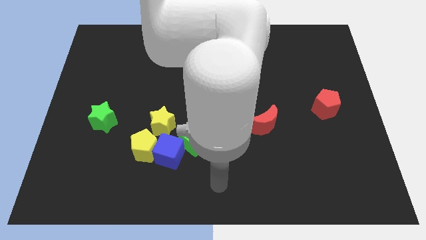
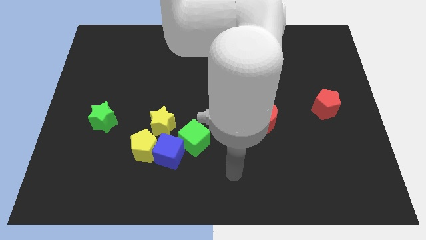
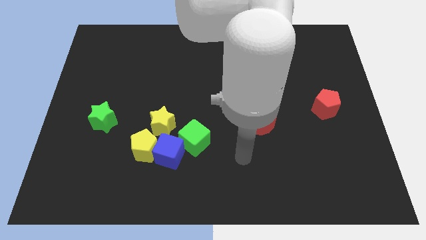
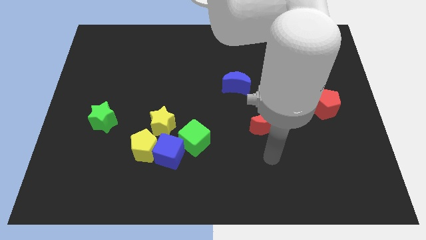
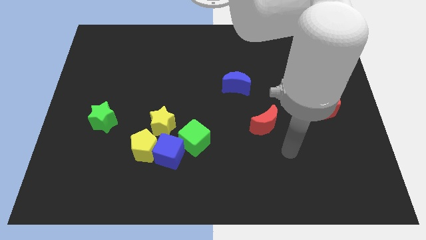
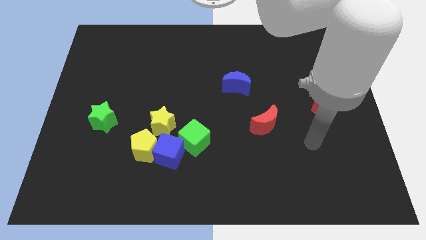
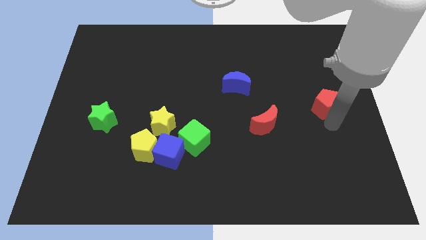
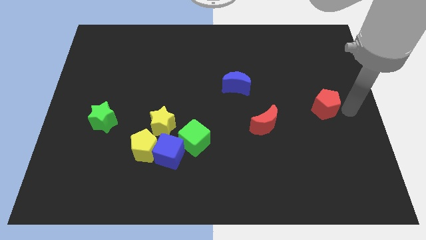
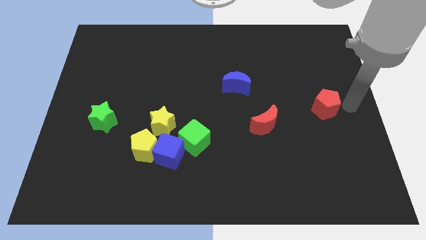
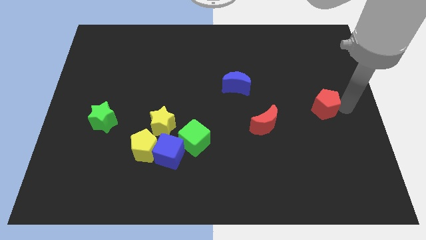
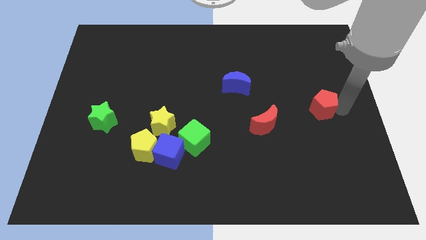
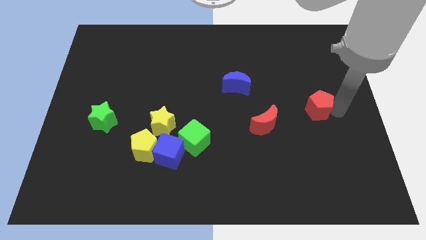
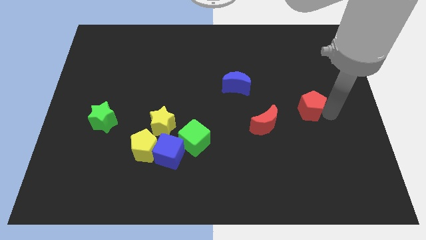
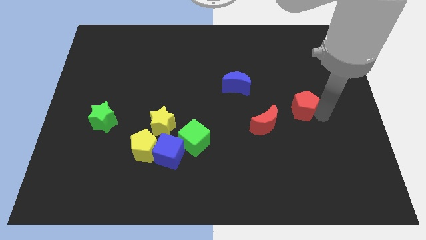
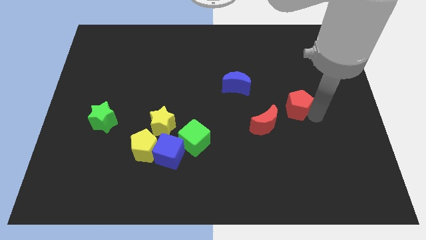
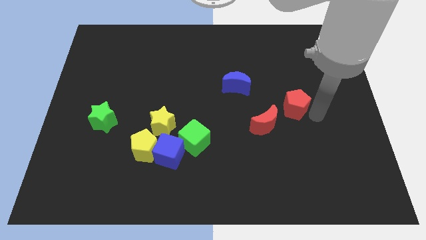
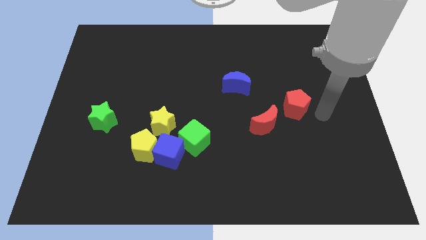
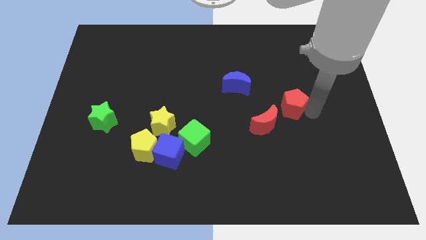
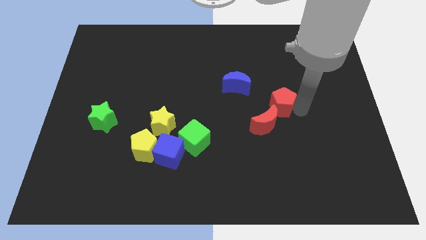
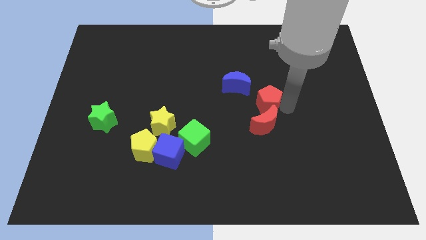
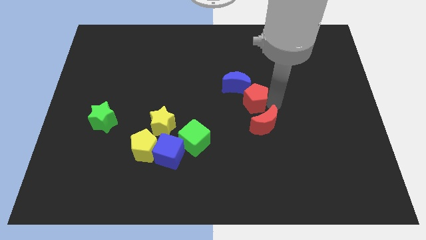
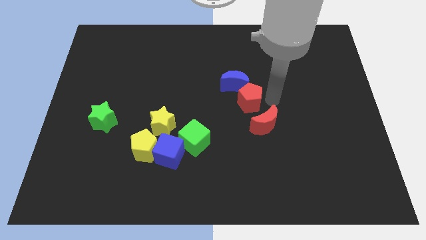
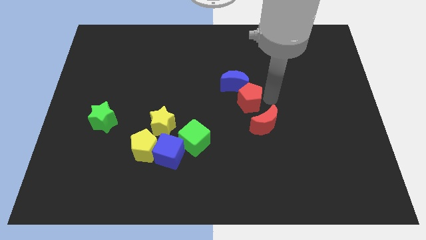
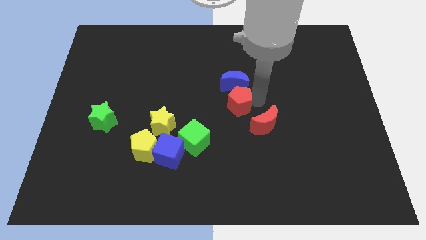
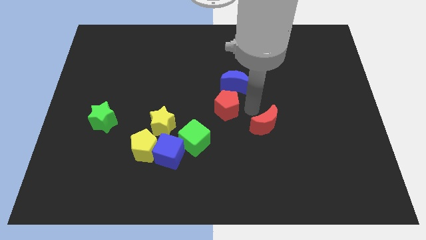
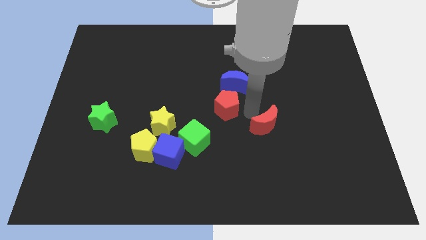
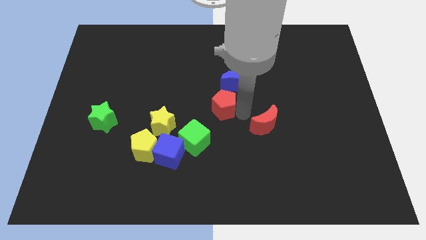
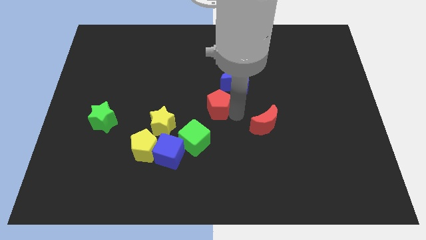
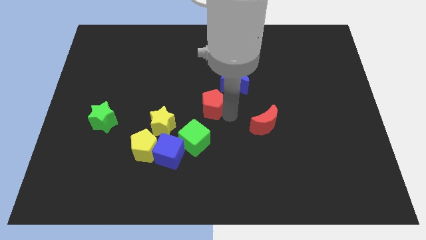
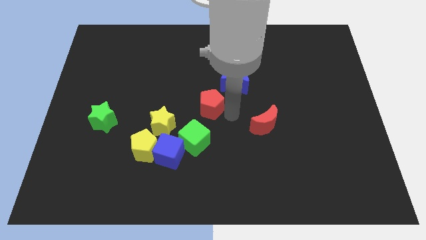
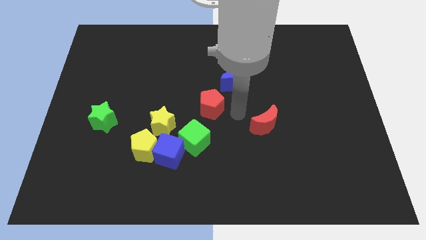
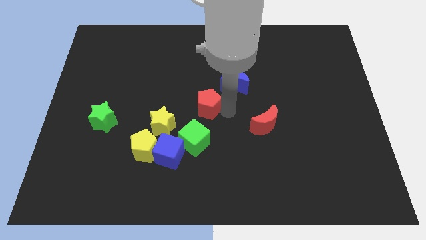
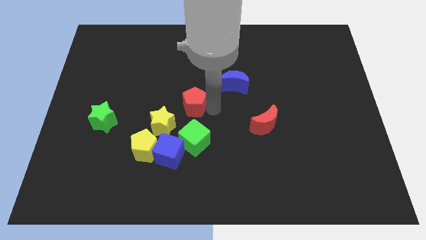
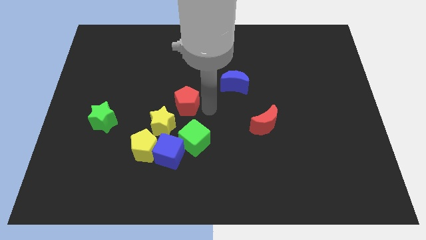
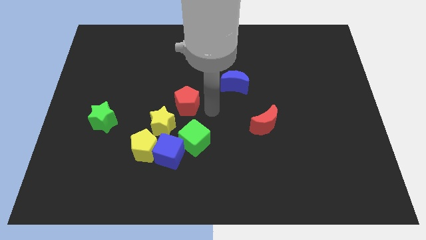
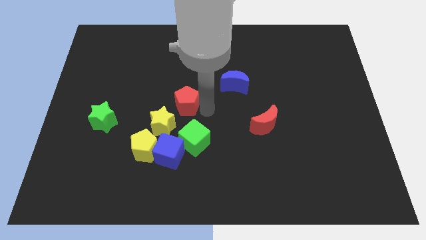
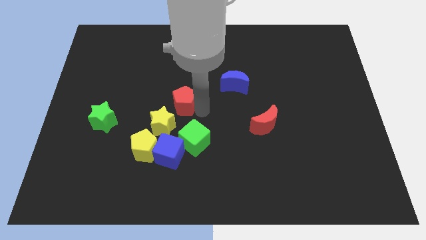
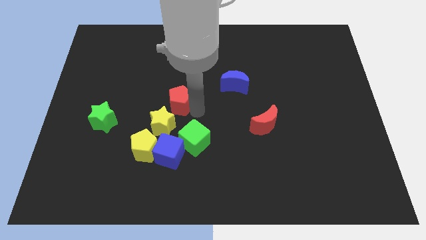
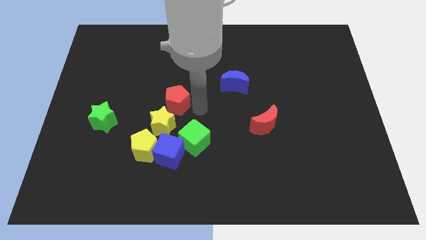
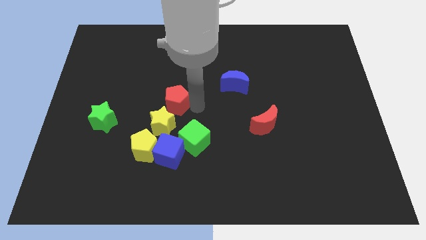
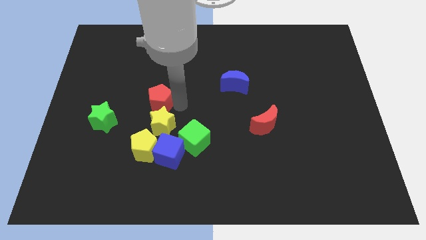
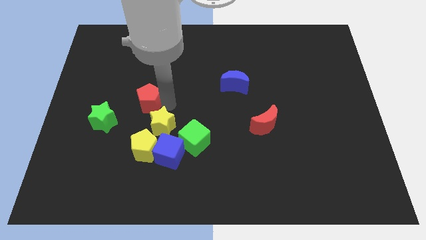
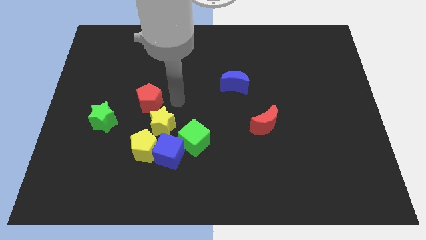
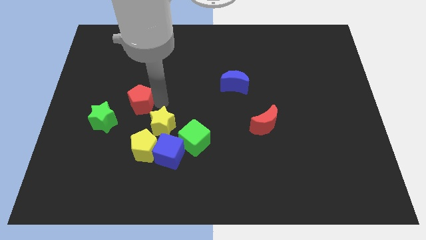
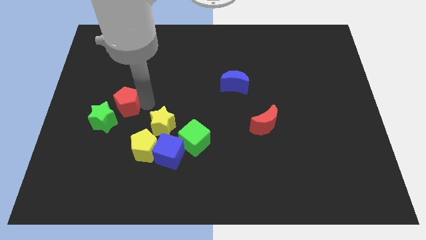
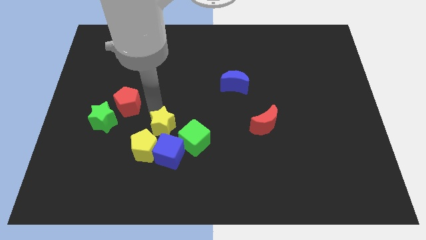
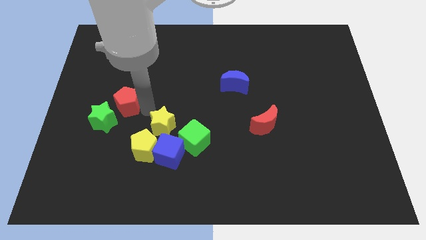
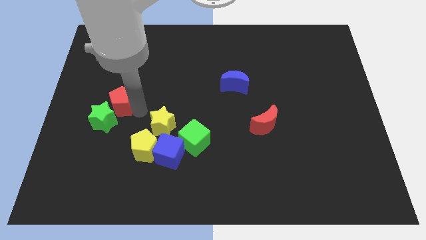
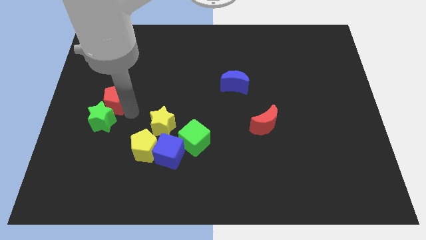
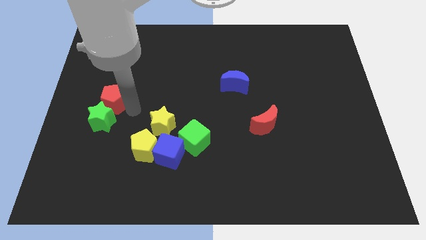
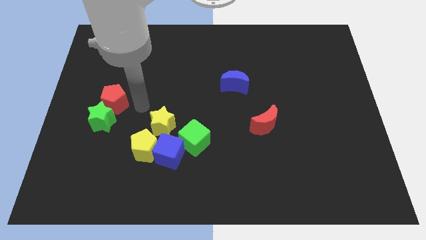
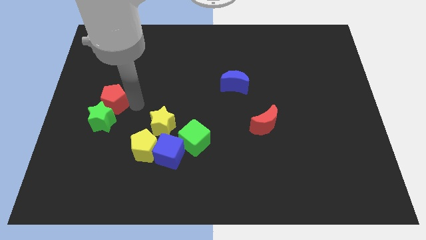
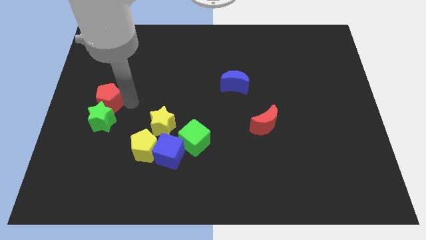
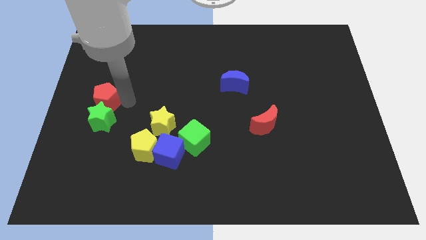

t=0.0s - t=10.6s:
move the red pentagon to the left side

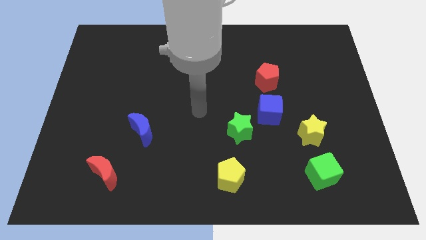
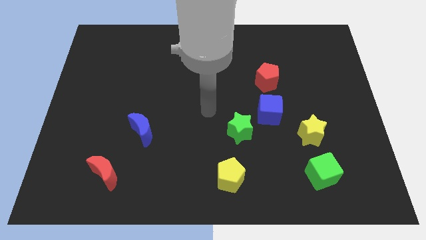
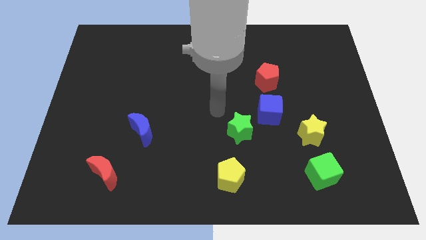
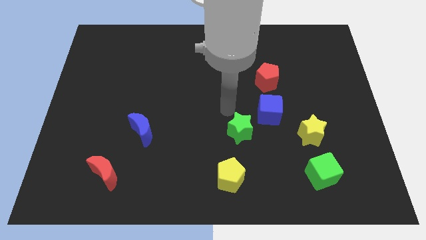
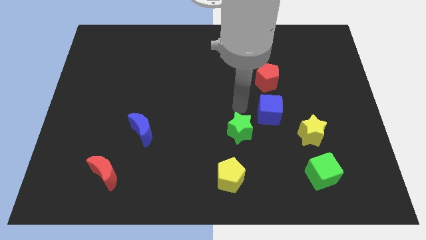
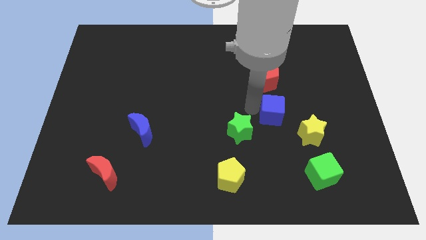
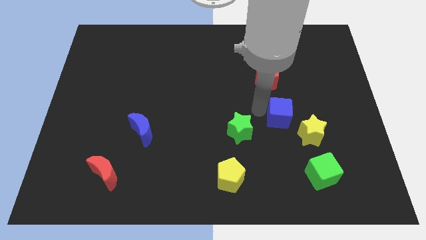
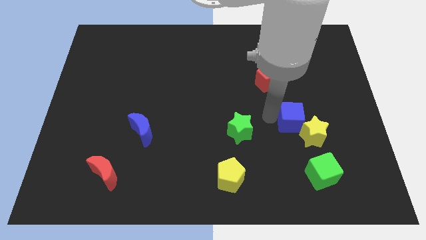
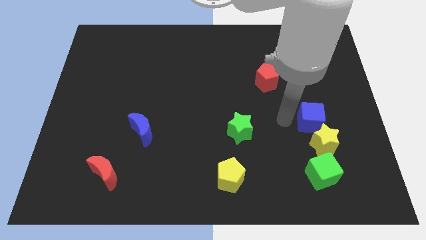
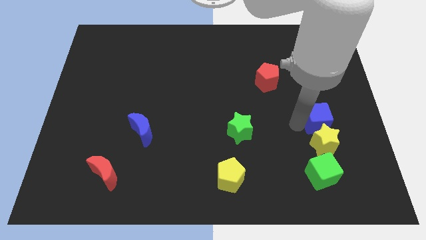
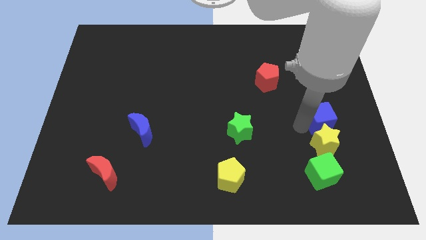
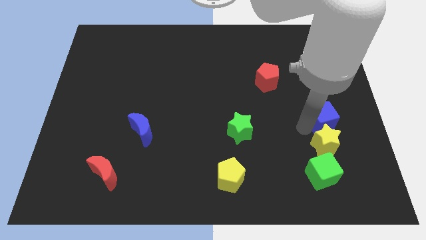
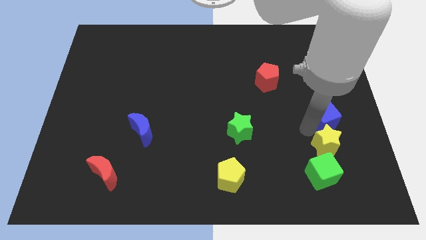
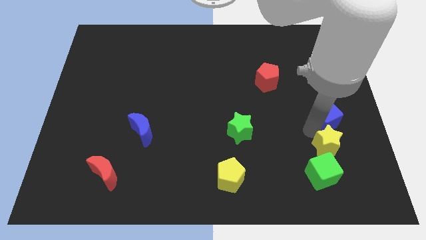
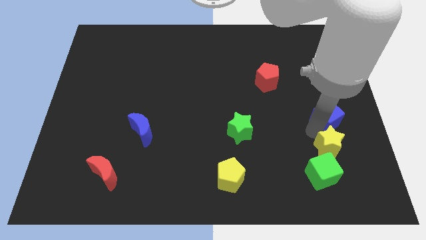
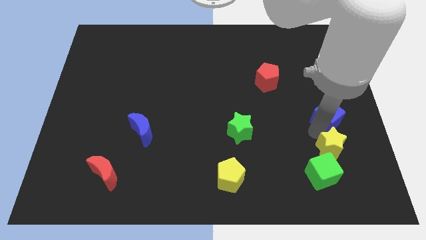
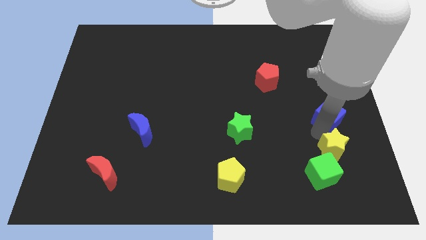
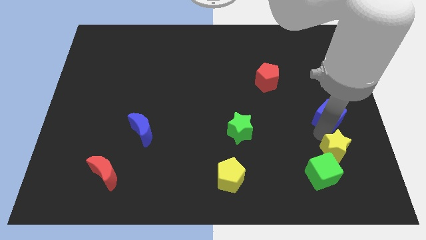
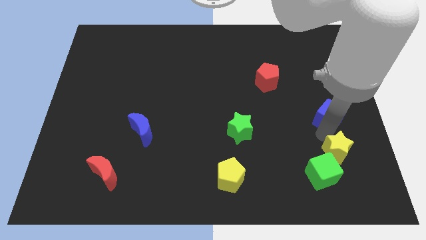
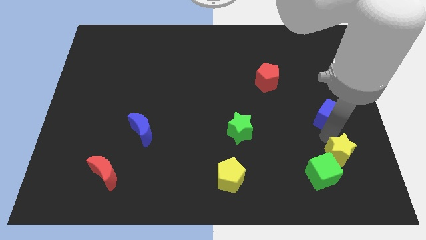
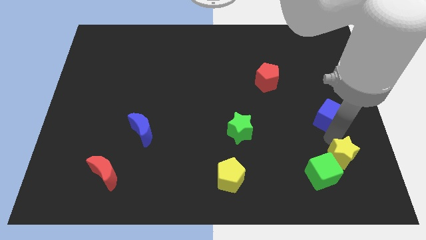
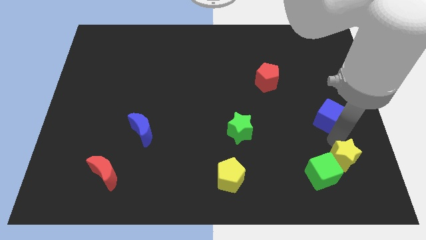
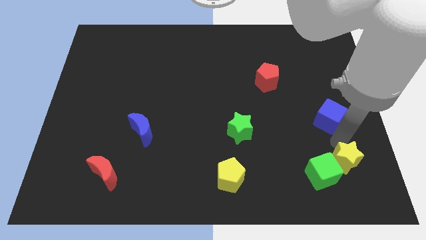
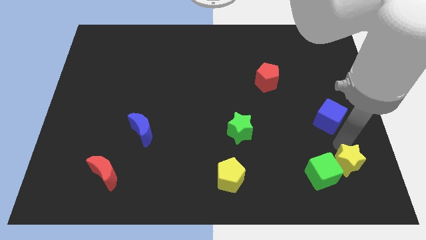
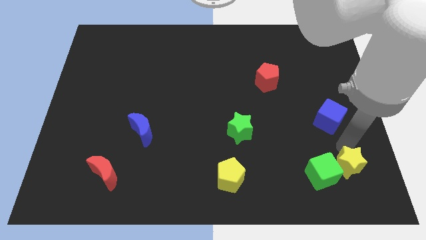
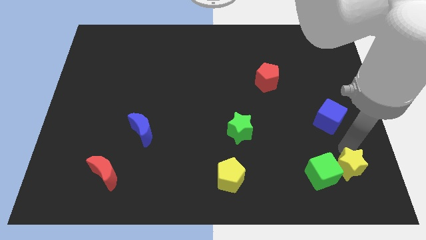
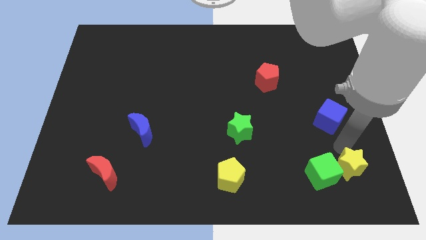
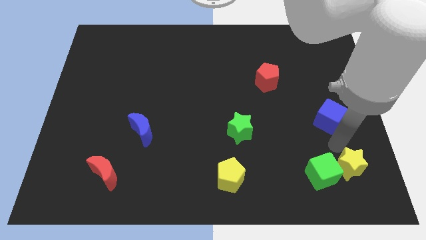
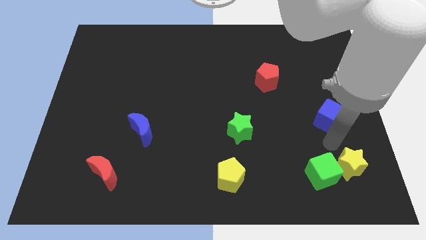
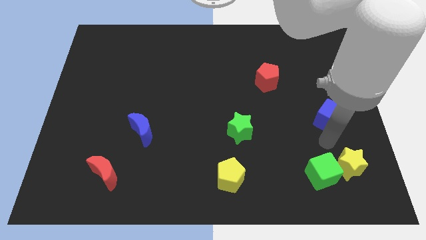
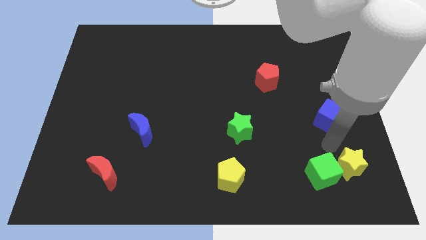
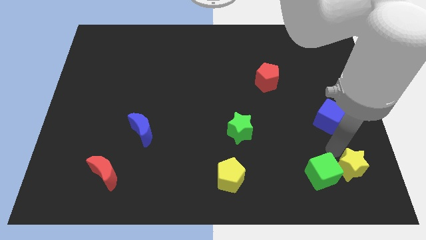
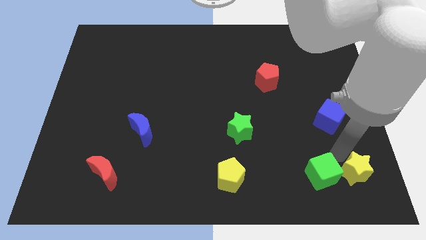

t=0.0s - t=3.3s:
push the yellow star to the bottom right corner
